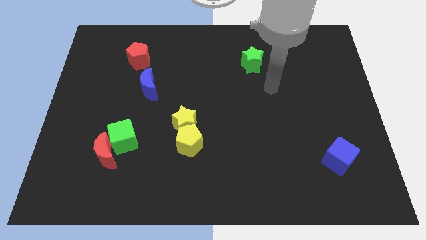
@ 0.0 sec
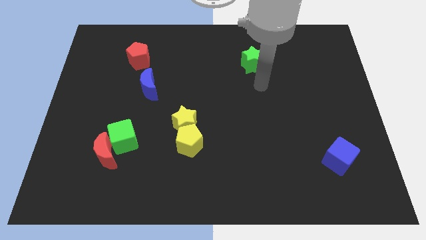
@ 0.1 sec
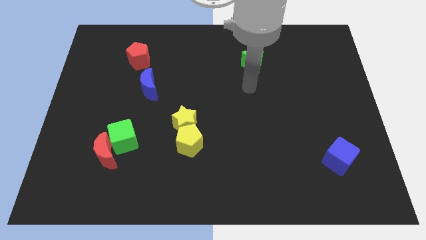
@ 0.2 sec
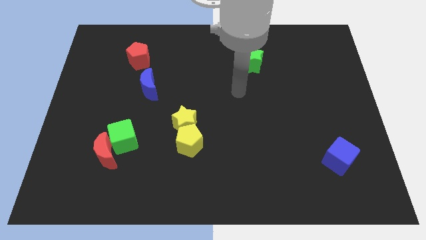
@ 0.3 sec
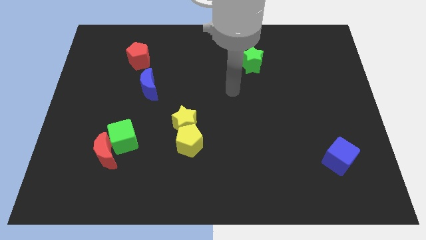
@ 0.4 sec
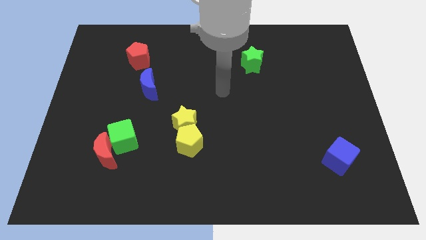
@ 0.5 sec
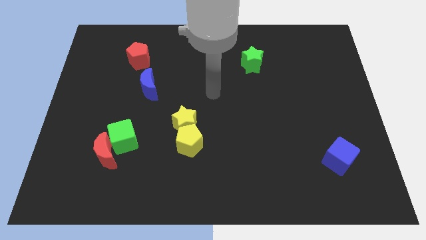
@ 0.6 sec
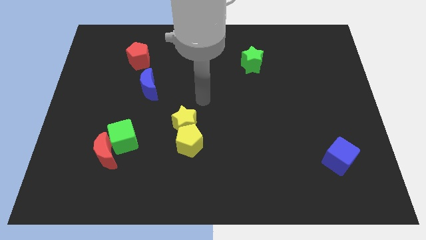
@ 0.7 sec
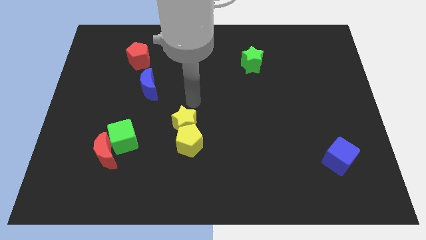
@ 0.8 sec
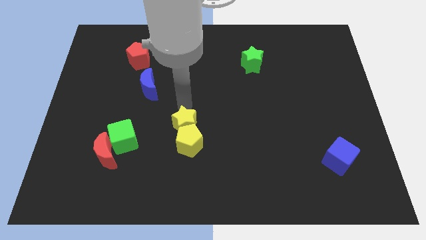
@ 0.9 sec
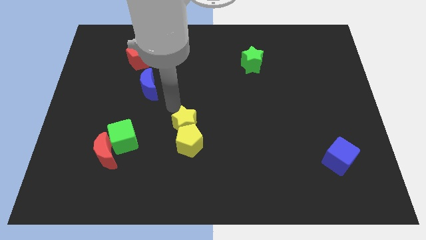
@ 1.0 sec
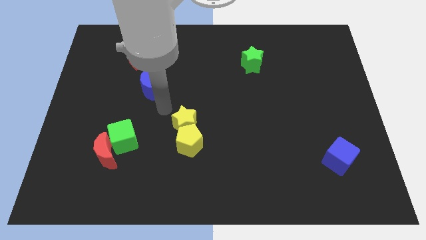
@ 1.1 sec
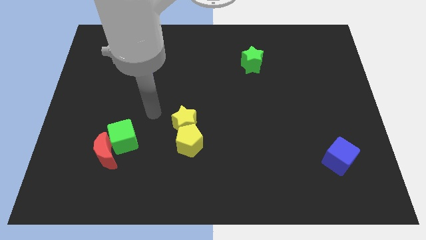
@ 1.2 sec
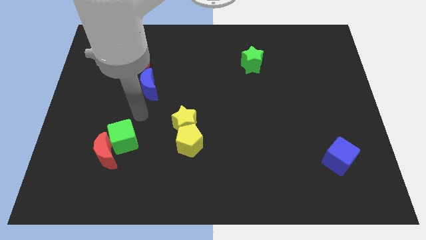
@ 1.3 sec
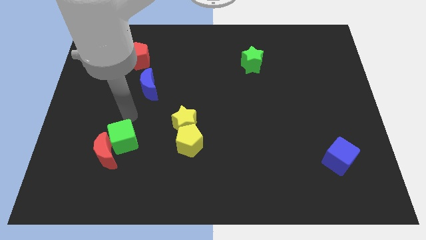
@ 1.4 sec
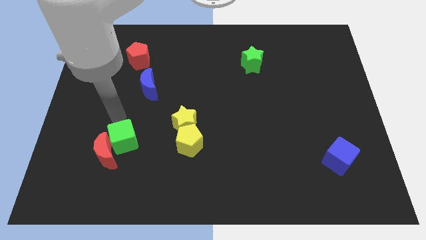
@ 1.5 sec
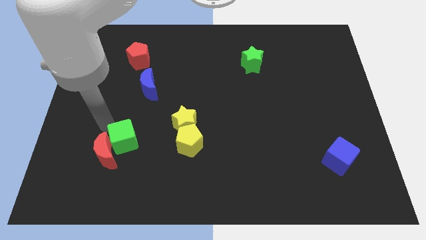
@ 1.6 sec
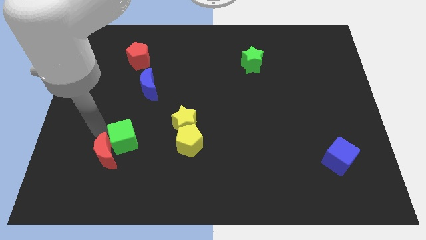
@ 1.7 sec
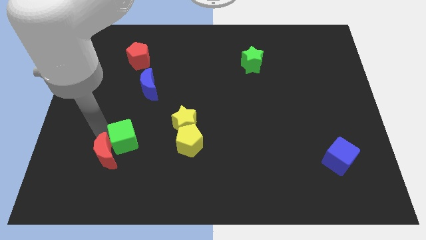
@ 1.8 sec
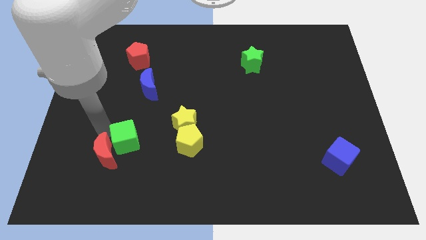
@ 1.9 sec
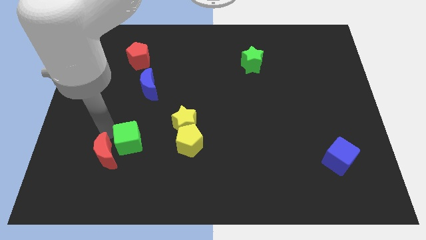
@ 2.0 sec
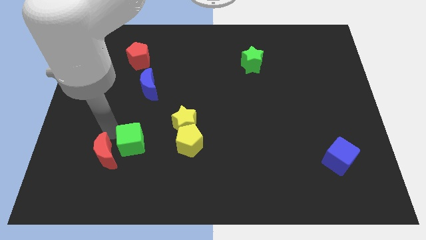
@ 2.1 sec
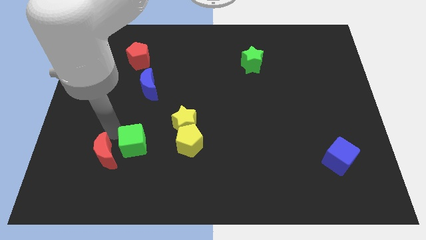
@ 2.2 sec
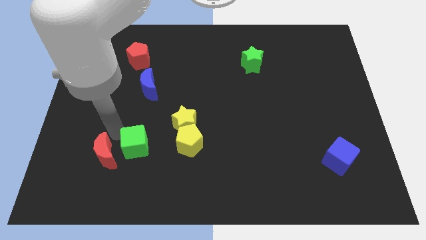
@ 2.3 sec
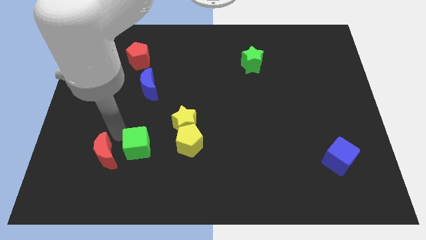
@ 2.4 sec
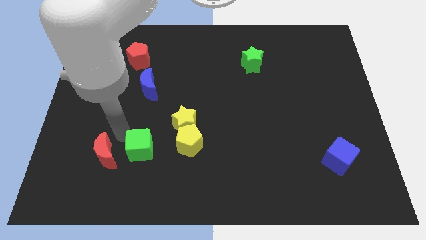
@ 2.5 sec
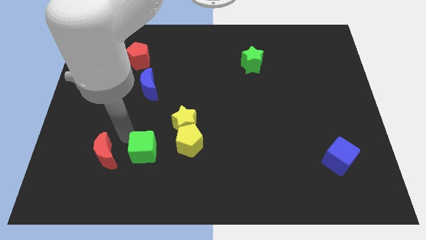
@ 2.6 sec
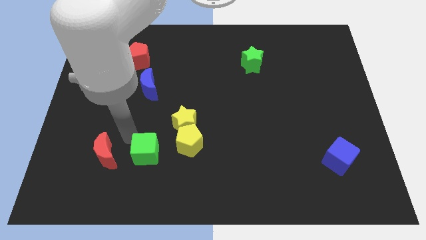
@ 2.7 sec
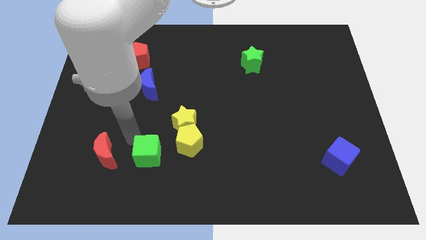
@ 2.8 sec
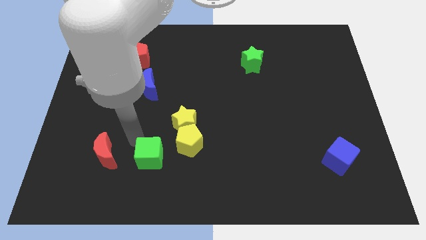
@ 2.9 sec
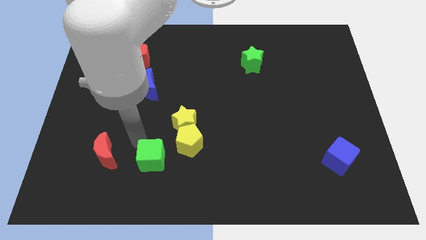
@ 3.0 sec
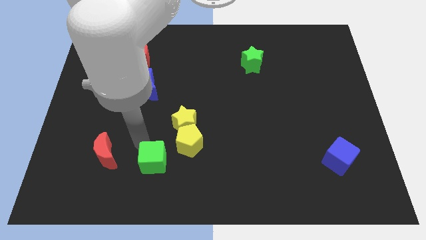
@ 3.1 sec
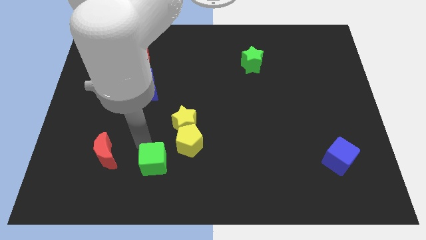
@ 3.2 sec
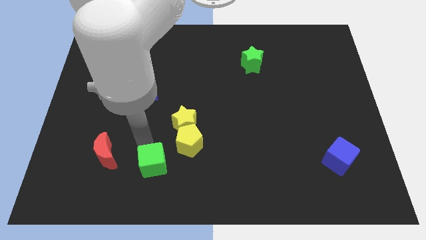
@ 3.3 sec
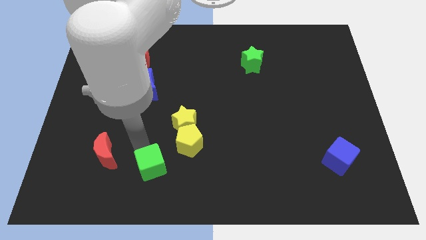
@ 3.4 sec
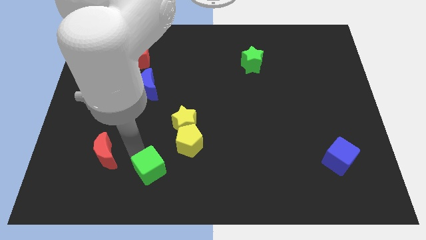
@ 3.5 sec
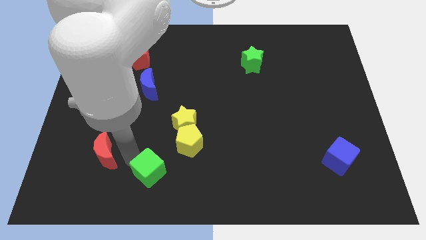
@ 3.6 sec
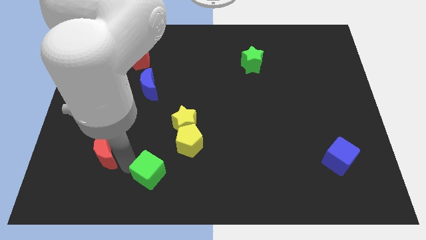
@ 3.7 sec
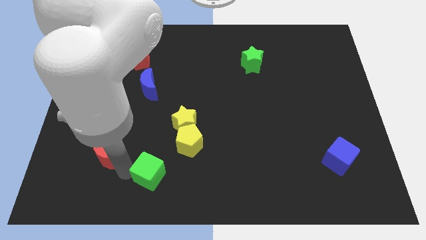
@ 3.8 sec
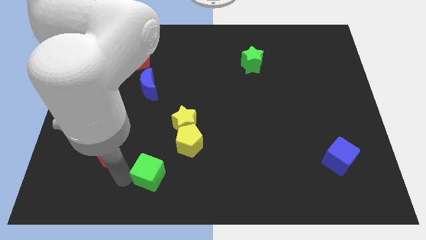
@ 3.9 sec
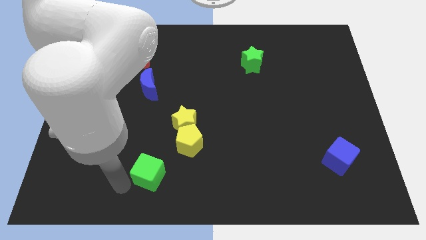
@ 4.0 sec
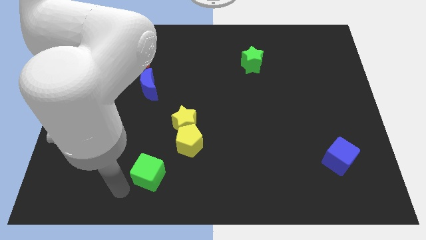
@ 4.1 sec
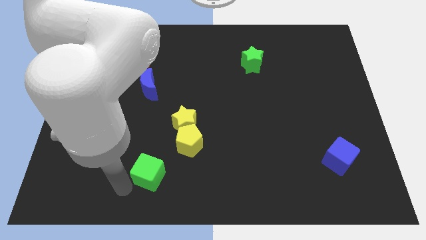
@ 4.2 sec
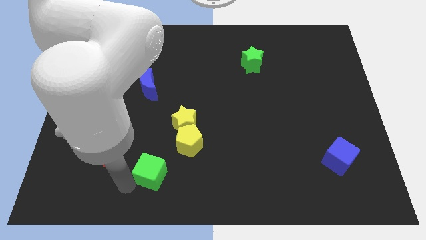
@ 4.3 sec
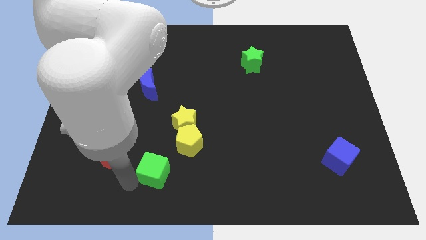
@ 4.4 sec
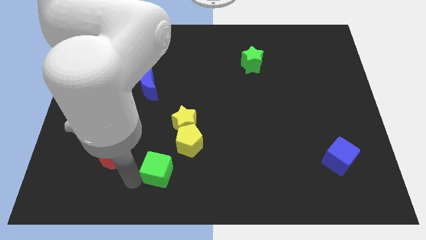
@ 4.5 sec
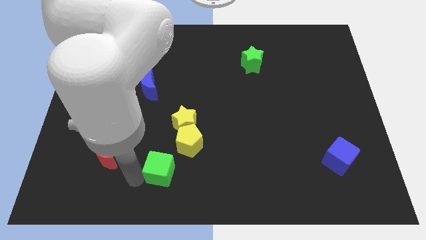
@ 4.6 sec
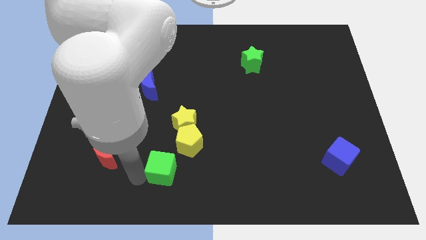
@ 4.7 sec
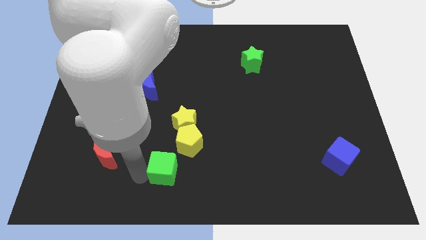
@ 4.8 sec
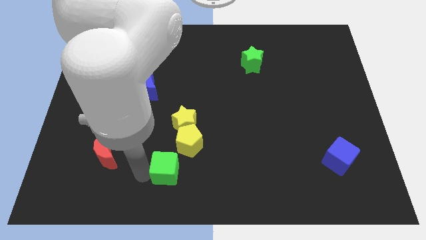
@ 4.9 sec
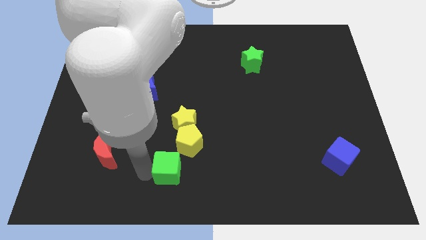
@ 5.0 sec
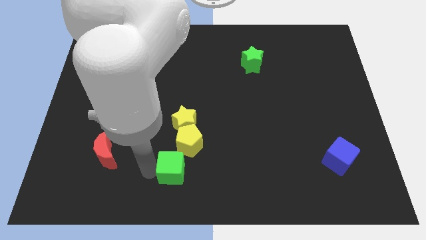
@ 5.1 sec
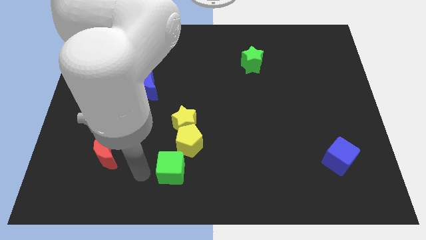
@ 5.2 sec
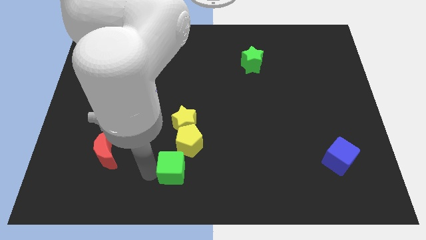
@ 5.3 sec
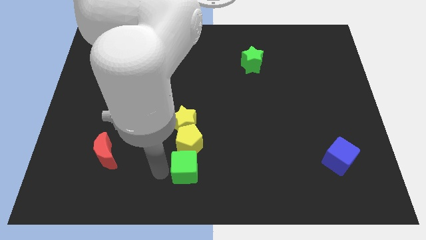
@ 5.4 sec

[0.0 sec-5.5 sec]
put the green cube to the bottom right of the yellow pentagon

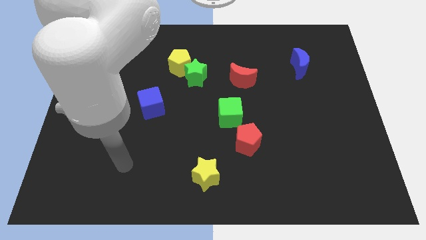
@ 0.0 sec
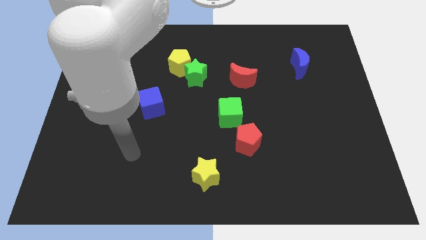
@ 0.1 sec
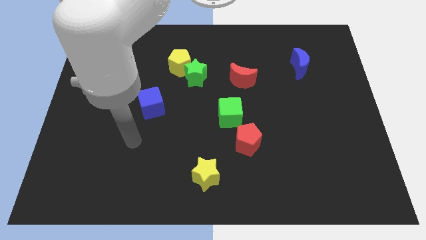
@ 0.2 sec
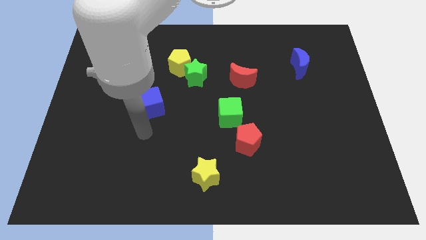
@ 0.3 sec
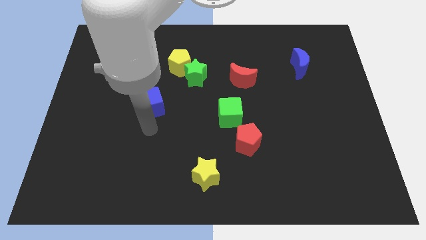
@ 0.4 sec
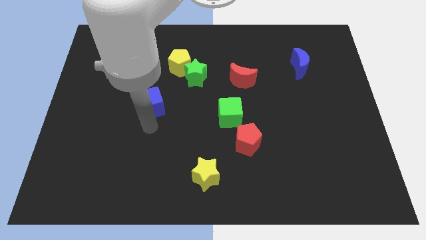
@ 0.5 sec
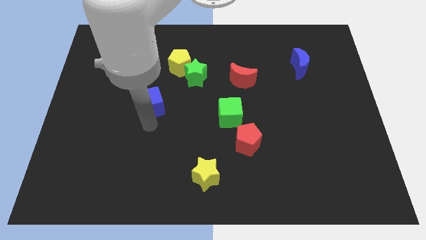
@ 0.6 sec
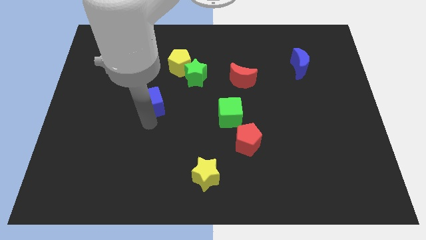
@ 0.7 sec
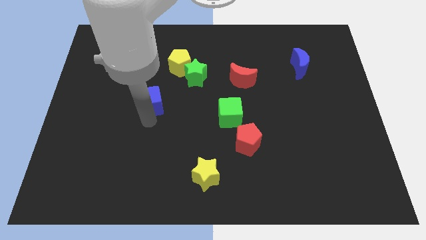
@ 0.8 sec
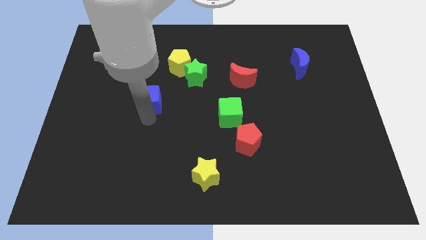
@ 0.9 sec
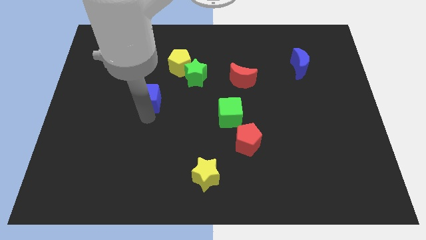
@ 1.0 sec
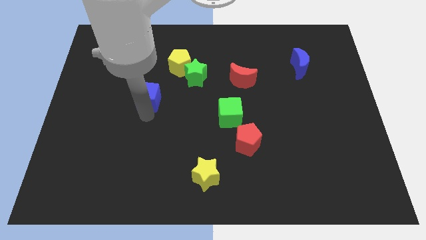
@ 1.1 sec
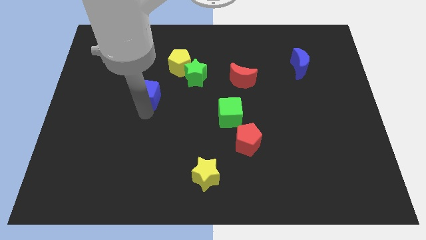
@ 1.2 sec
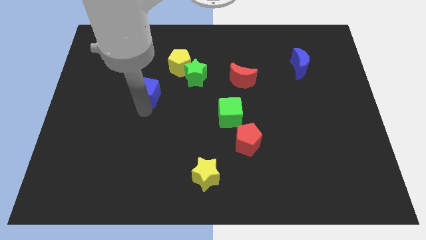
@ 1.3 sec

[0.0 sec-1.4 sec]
move the blue cube to the bottom left of the yellow pentagon

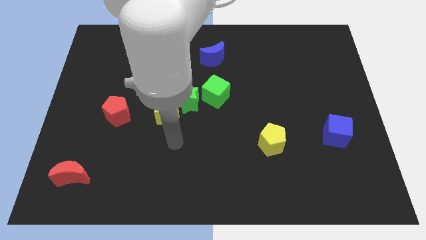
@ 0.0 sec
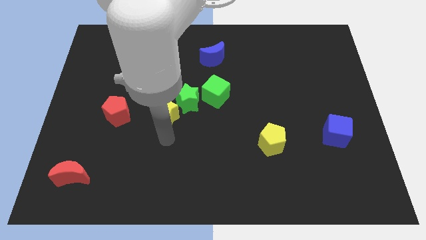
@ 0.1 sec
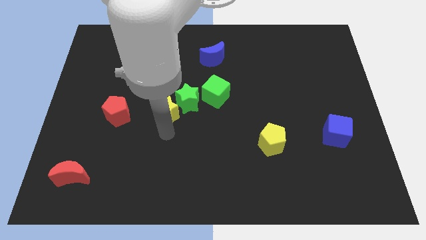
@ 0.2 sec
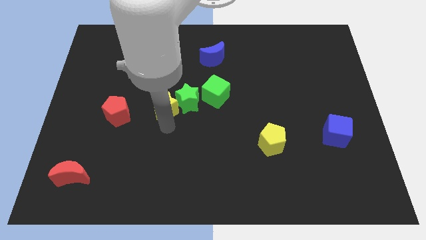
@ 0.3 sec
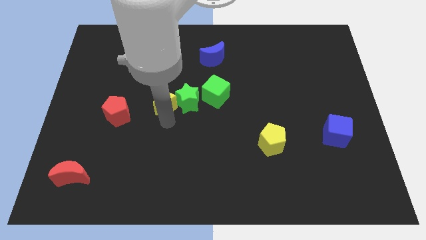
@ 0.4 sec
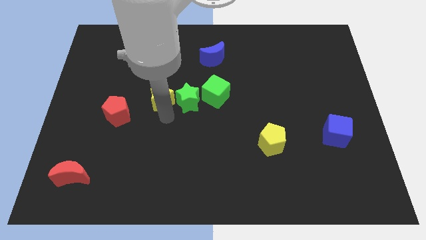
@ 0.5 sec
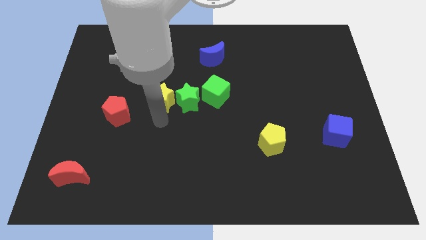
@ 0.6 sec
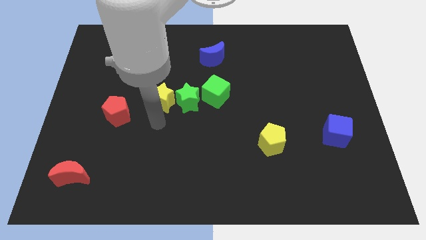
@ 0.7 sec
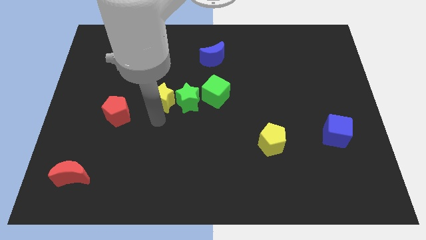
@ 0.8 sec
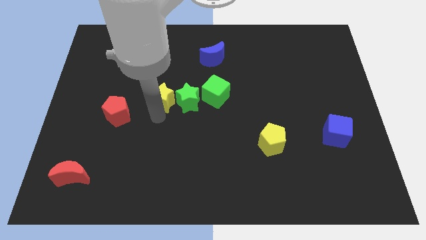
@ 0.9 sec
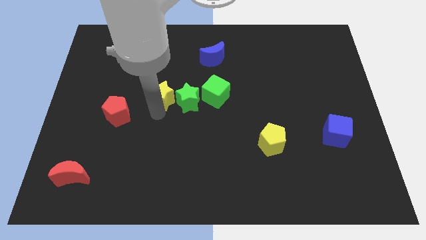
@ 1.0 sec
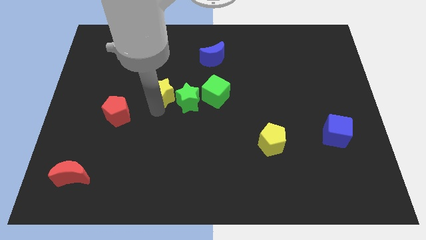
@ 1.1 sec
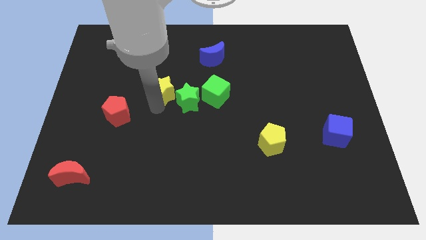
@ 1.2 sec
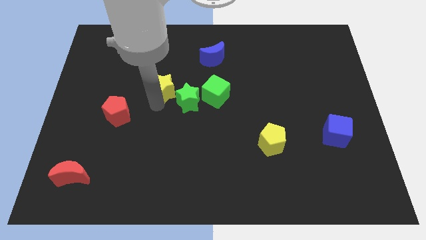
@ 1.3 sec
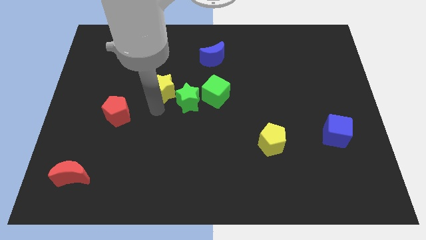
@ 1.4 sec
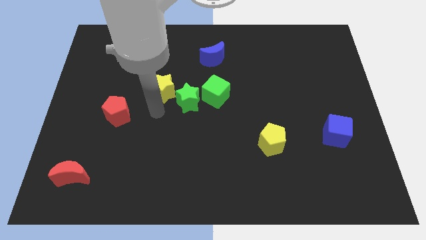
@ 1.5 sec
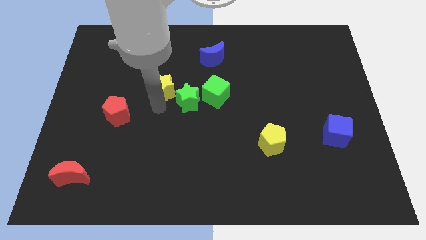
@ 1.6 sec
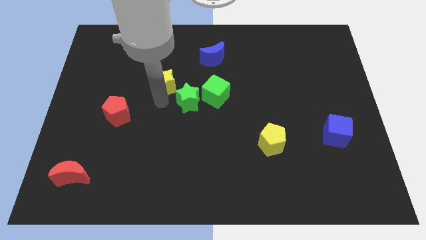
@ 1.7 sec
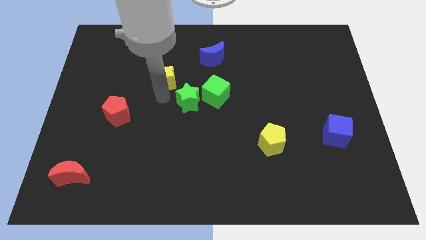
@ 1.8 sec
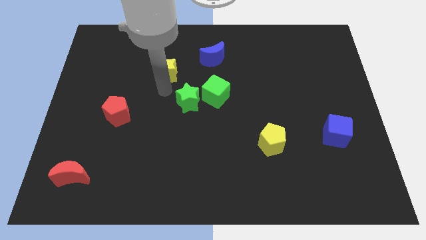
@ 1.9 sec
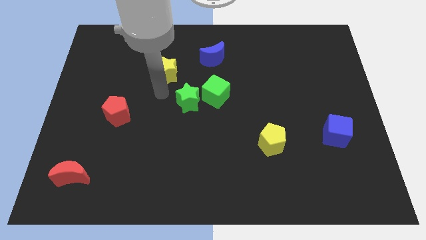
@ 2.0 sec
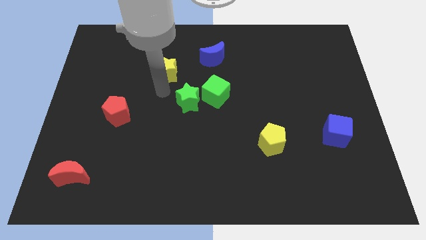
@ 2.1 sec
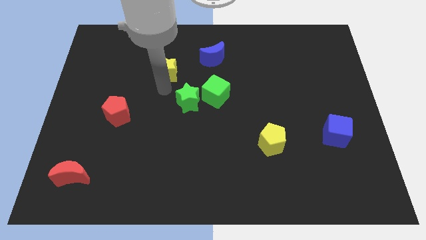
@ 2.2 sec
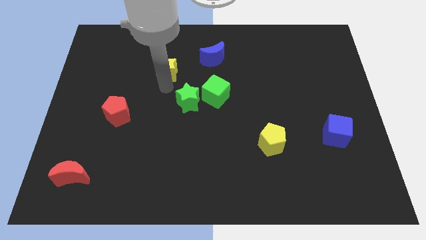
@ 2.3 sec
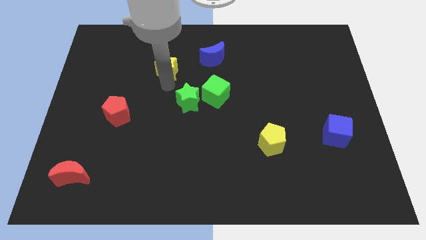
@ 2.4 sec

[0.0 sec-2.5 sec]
put the yellow star to the left of the blue moon
